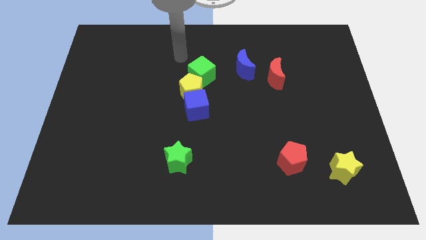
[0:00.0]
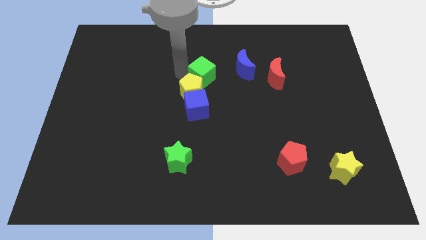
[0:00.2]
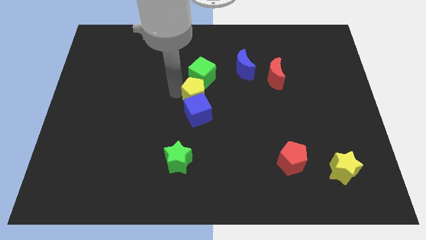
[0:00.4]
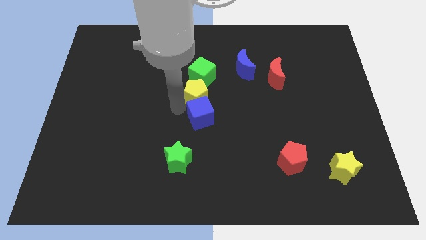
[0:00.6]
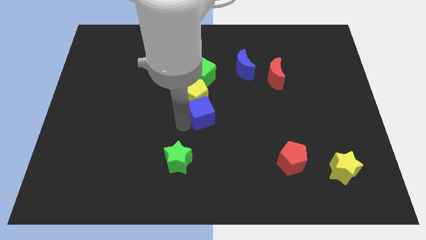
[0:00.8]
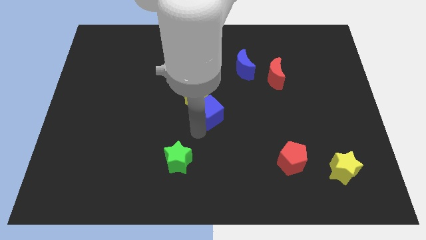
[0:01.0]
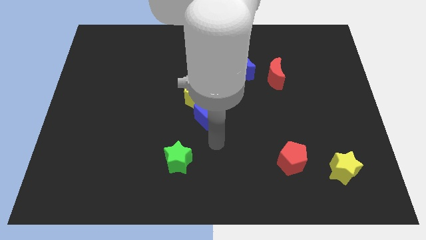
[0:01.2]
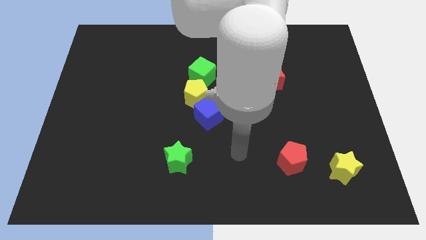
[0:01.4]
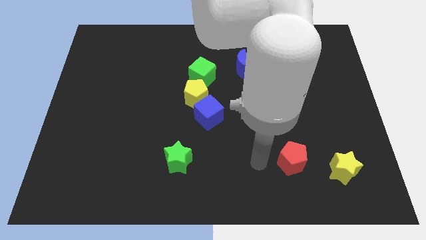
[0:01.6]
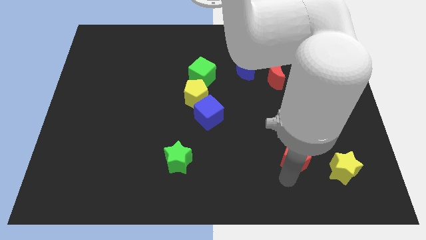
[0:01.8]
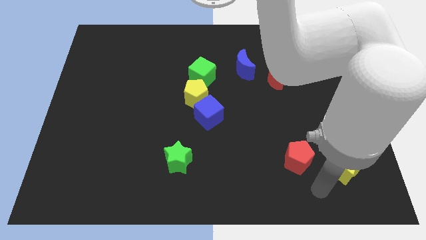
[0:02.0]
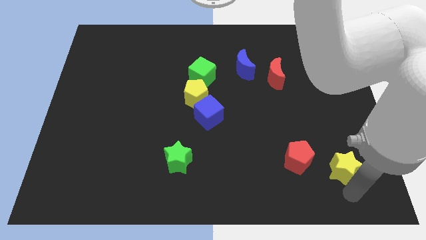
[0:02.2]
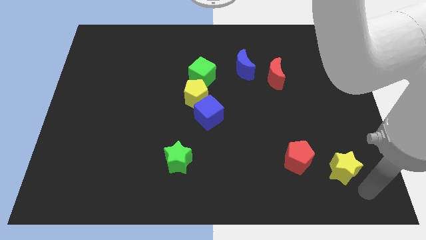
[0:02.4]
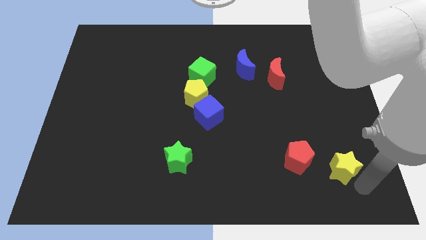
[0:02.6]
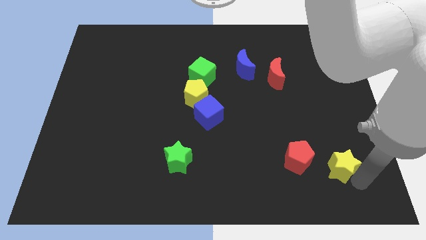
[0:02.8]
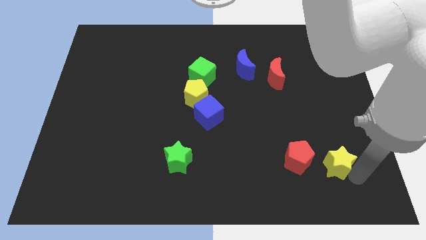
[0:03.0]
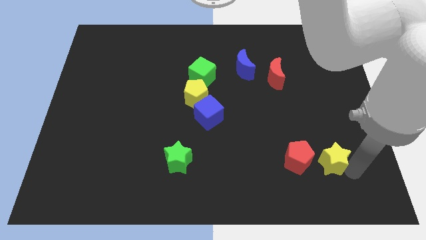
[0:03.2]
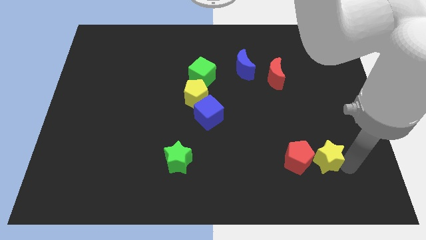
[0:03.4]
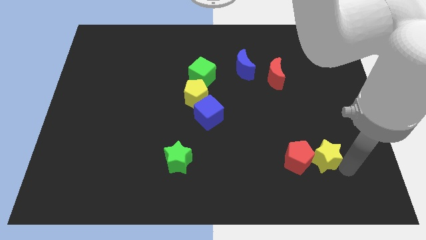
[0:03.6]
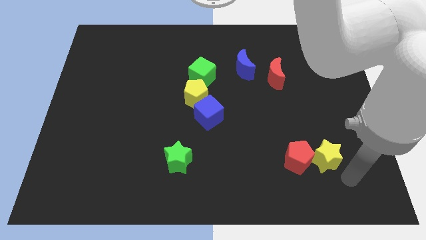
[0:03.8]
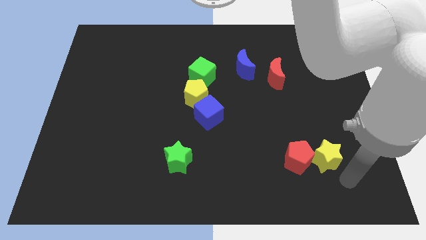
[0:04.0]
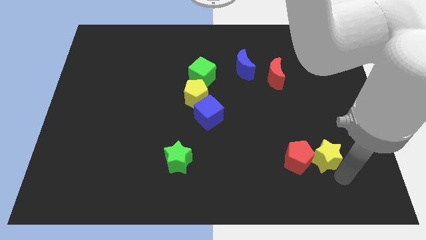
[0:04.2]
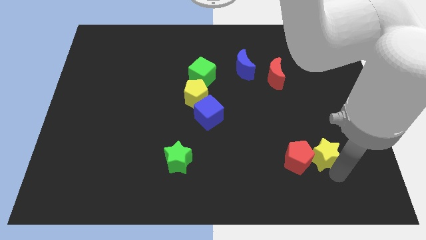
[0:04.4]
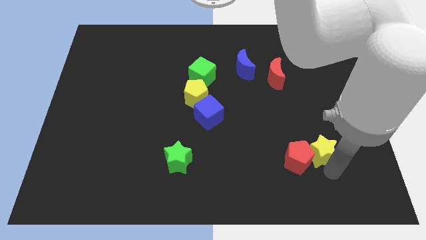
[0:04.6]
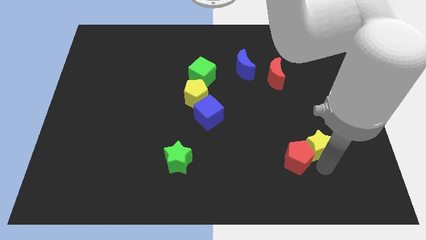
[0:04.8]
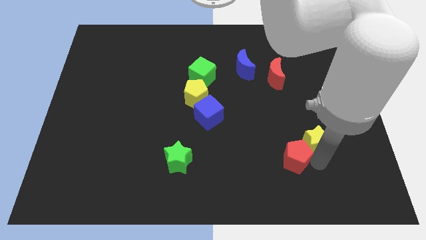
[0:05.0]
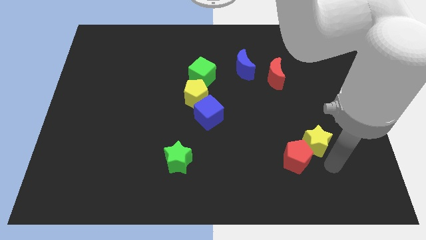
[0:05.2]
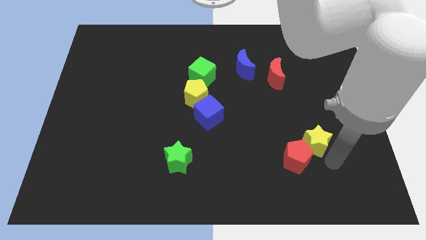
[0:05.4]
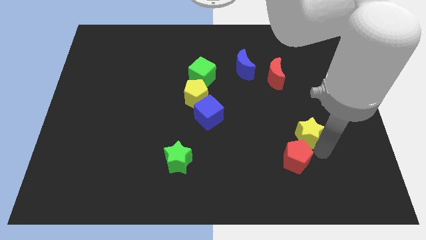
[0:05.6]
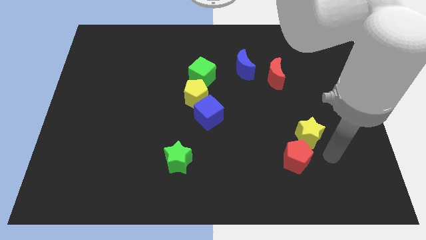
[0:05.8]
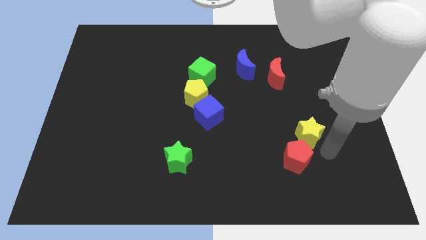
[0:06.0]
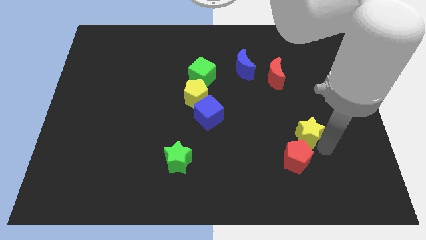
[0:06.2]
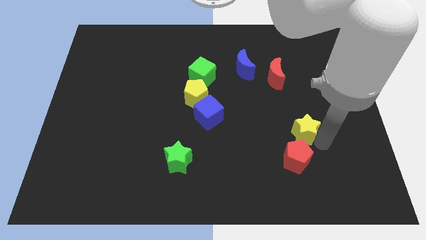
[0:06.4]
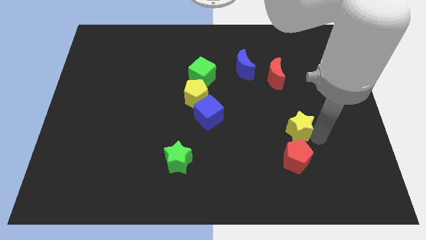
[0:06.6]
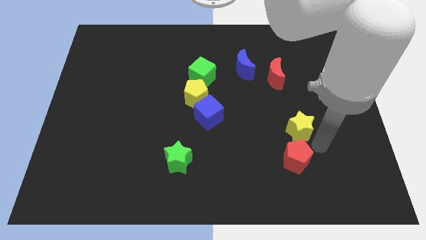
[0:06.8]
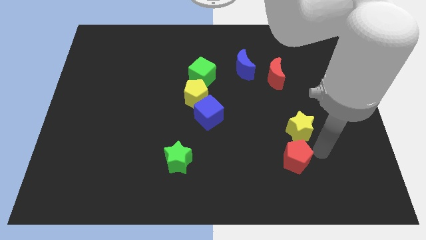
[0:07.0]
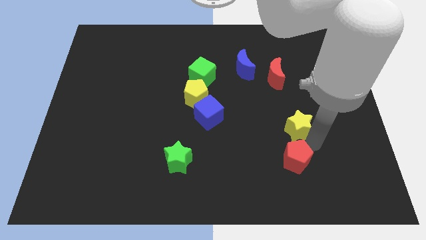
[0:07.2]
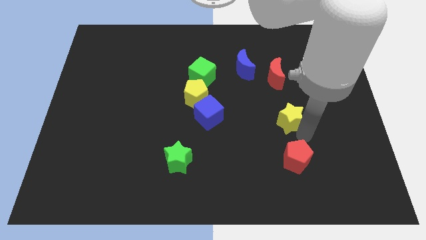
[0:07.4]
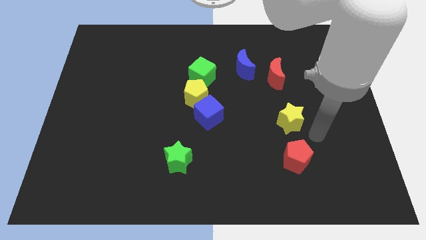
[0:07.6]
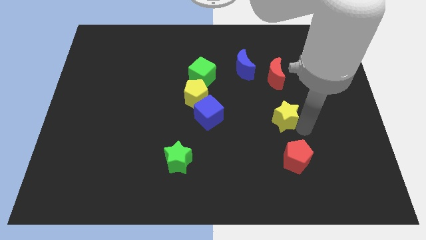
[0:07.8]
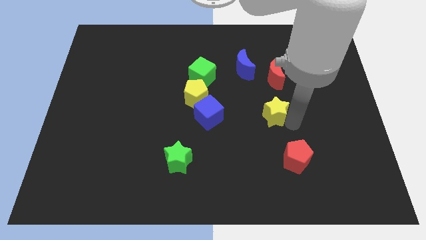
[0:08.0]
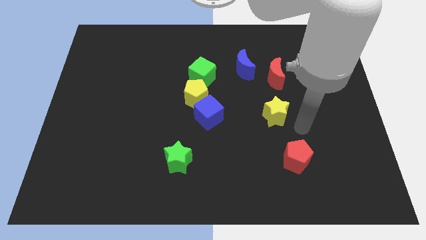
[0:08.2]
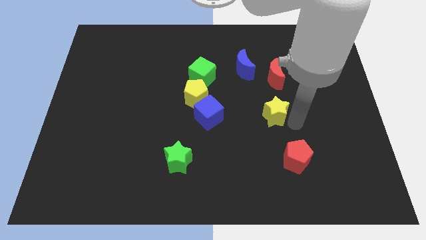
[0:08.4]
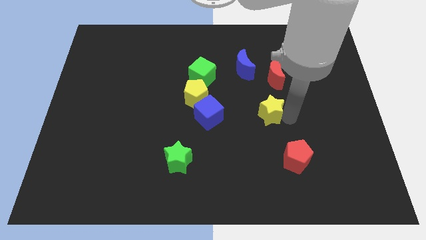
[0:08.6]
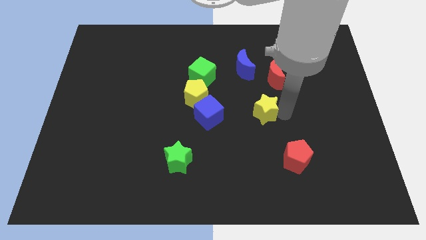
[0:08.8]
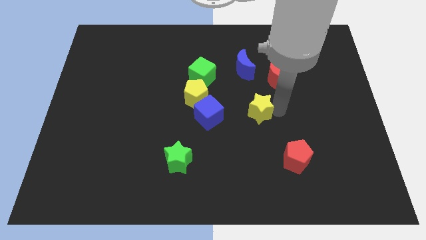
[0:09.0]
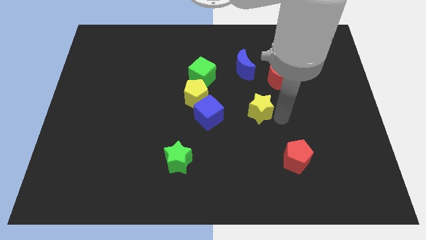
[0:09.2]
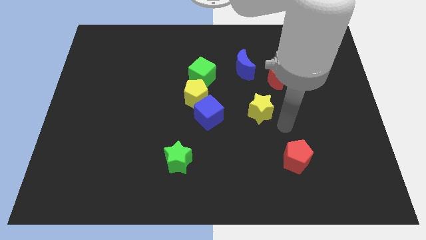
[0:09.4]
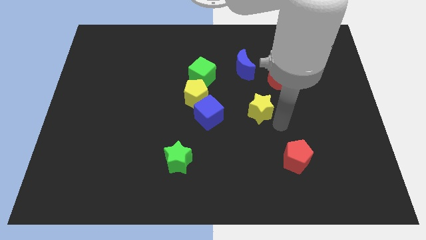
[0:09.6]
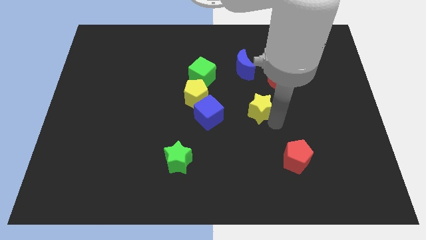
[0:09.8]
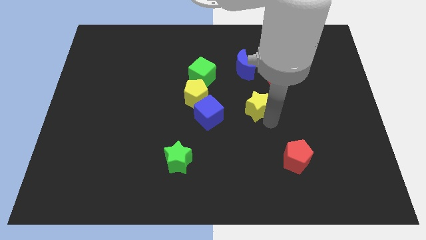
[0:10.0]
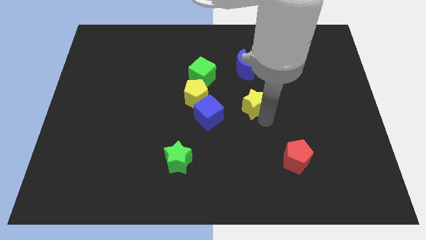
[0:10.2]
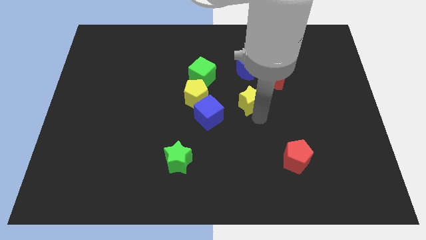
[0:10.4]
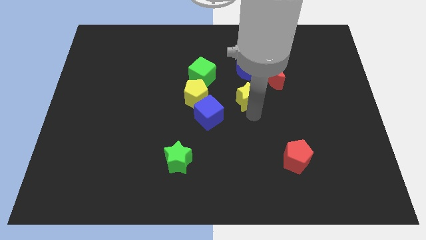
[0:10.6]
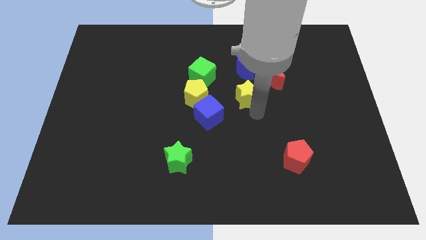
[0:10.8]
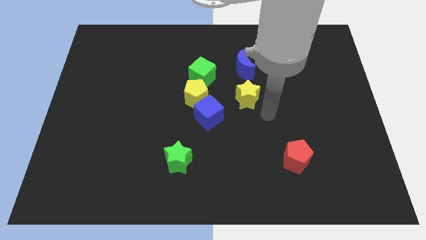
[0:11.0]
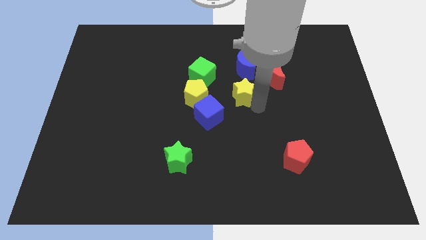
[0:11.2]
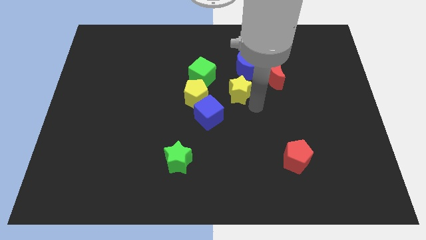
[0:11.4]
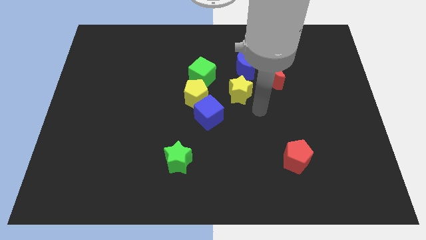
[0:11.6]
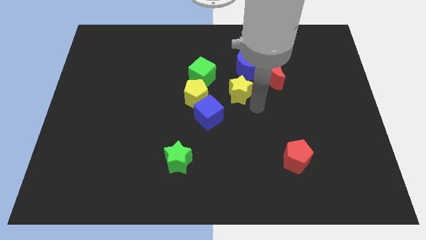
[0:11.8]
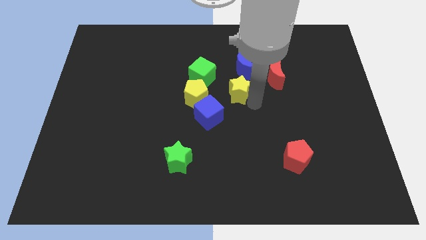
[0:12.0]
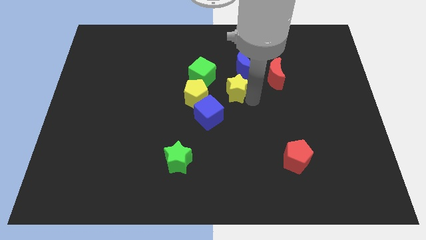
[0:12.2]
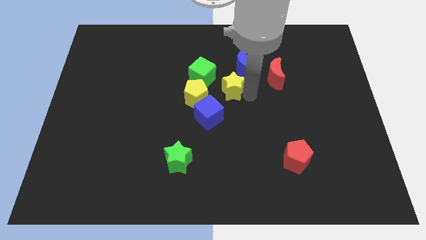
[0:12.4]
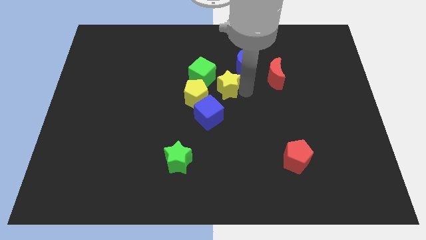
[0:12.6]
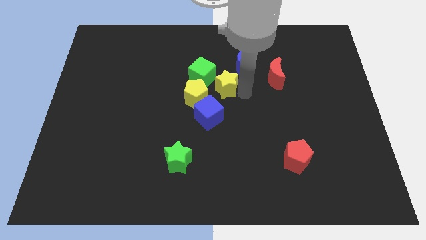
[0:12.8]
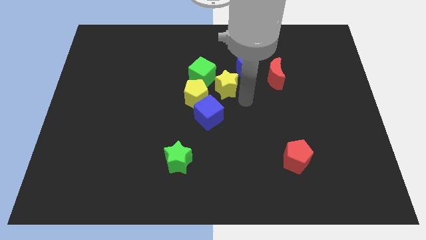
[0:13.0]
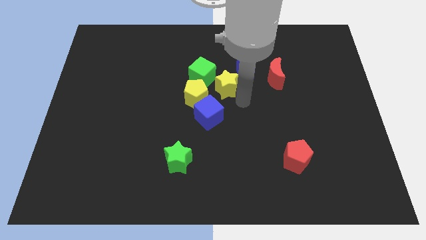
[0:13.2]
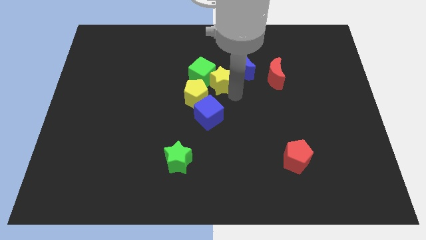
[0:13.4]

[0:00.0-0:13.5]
slide the yellow star close to the green cube

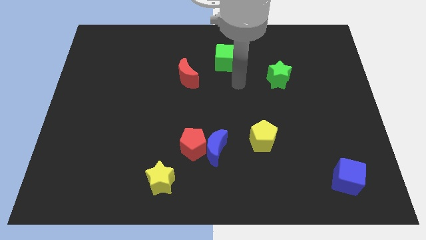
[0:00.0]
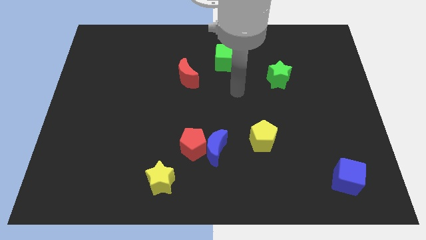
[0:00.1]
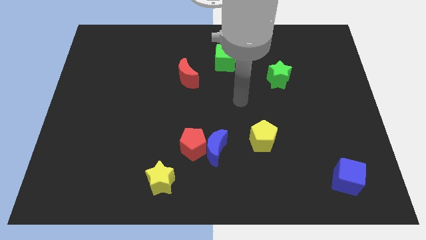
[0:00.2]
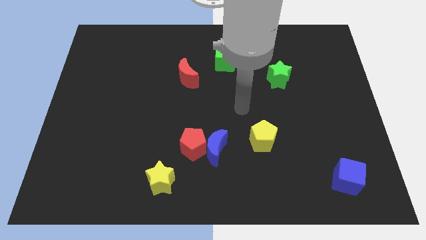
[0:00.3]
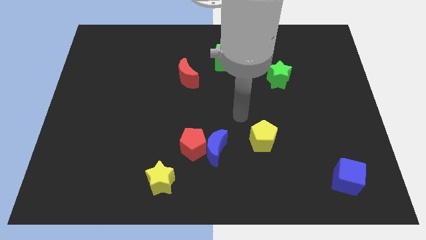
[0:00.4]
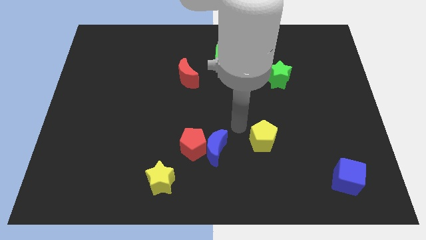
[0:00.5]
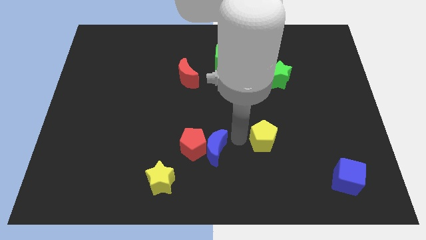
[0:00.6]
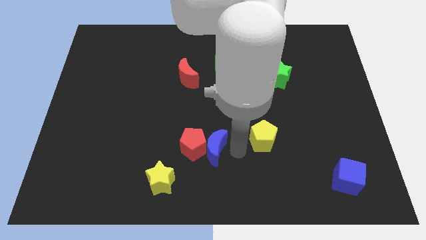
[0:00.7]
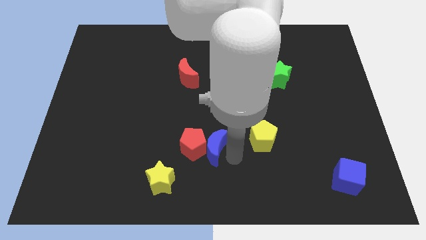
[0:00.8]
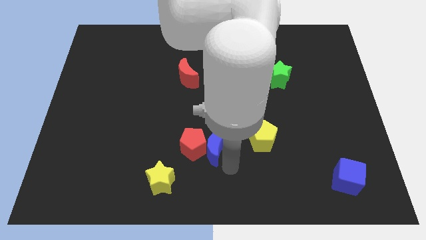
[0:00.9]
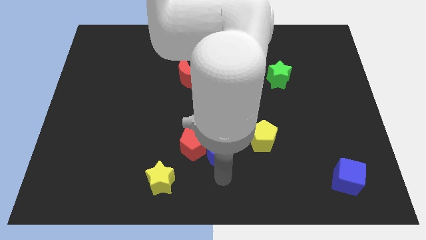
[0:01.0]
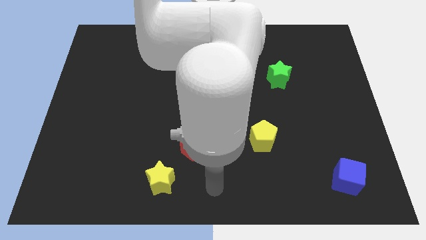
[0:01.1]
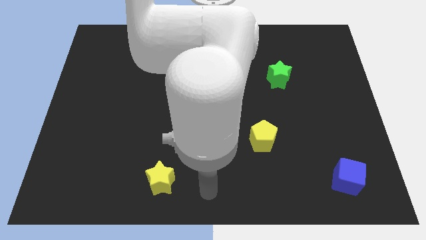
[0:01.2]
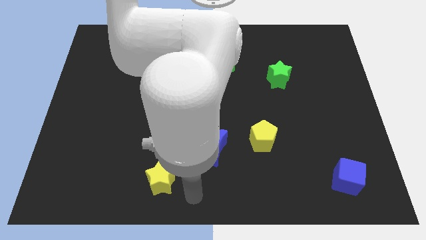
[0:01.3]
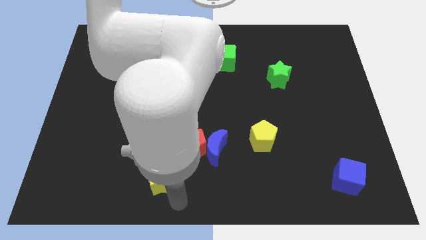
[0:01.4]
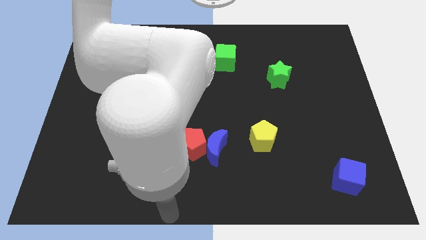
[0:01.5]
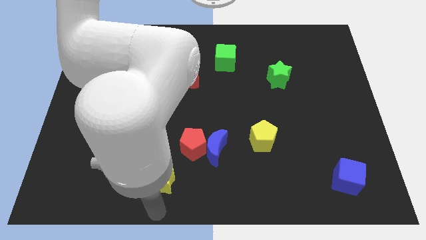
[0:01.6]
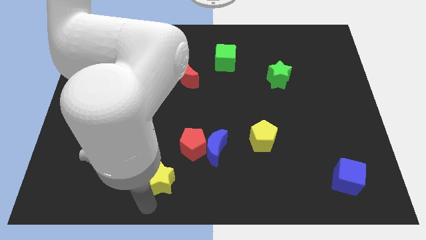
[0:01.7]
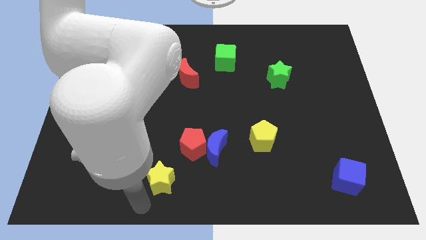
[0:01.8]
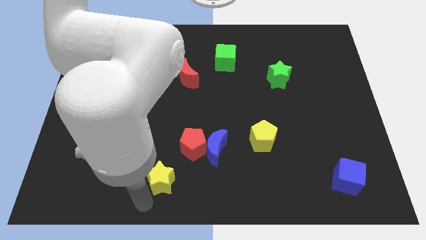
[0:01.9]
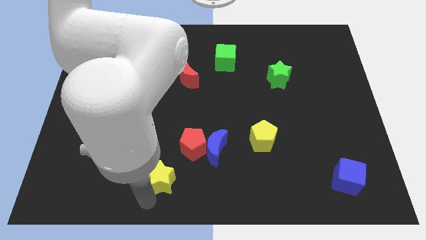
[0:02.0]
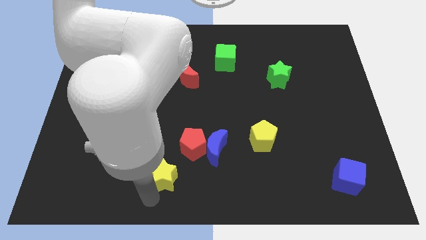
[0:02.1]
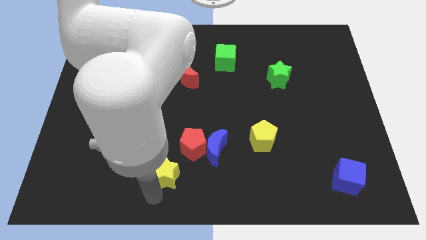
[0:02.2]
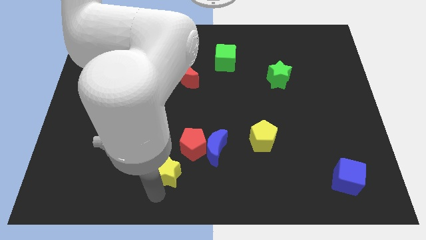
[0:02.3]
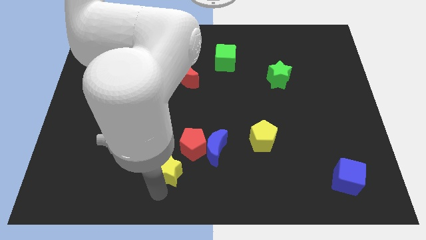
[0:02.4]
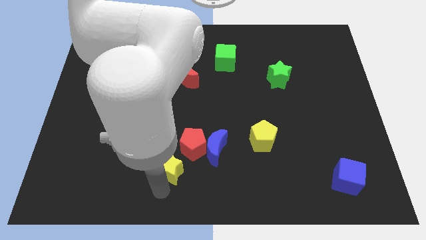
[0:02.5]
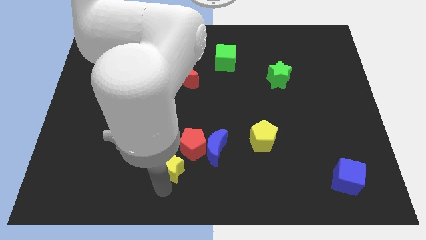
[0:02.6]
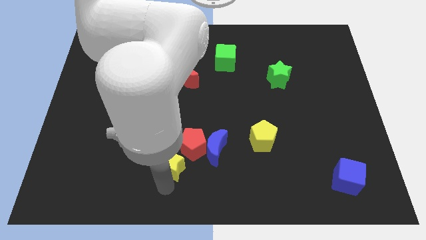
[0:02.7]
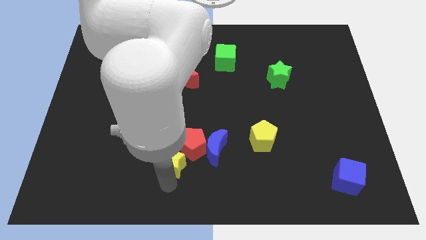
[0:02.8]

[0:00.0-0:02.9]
slide the yellow star close to the red pentagon
